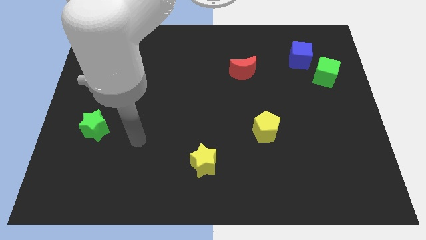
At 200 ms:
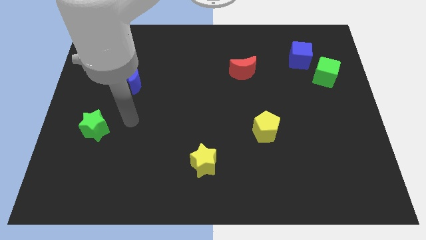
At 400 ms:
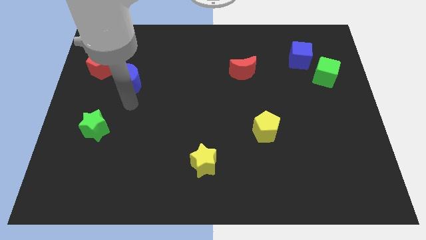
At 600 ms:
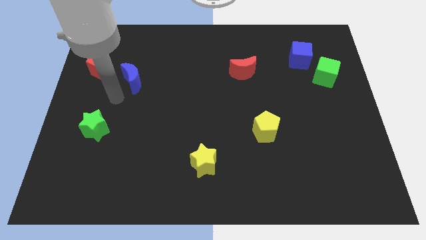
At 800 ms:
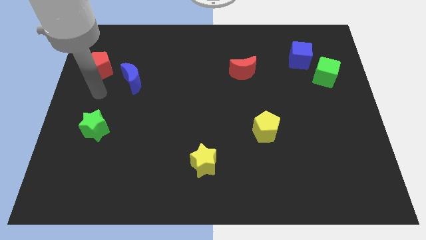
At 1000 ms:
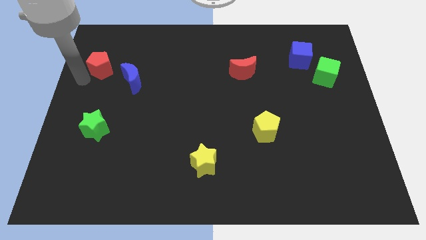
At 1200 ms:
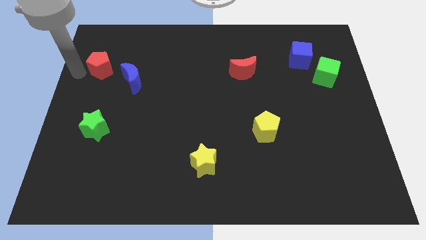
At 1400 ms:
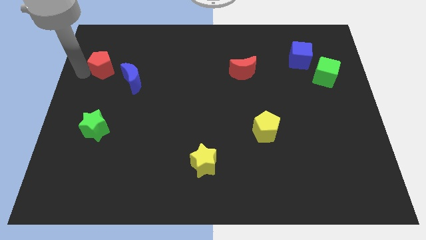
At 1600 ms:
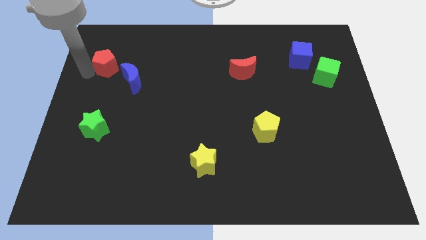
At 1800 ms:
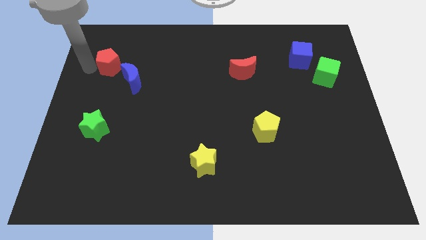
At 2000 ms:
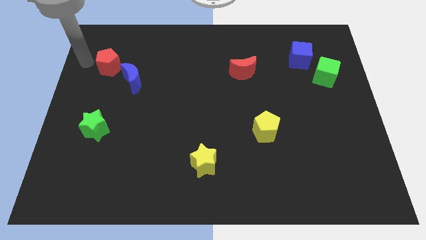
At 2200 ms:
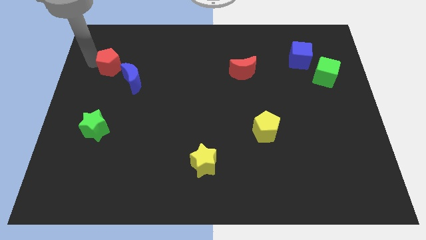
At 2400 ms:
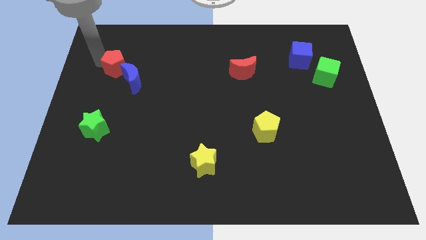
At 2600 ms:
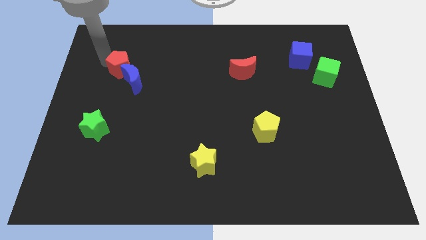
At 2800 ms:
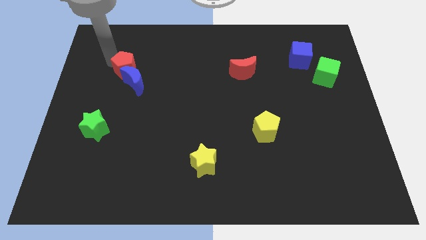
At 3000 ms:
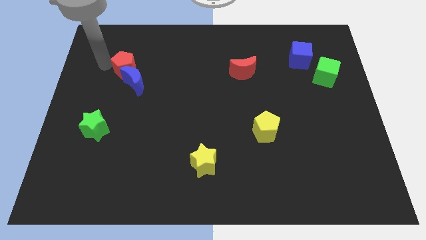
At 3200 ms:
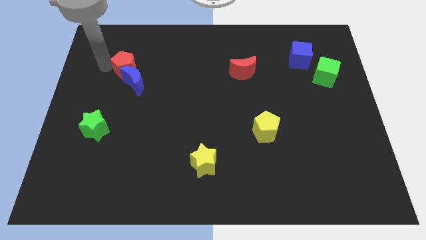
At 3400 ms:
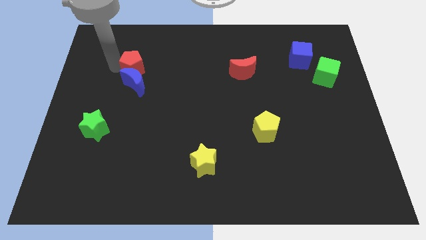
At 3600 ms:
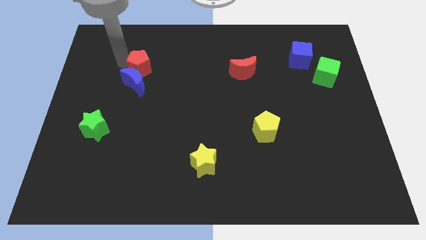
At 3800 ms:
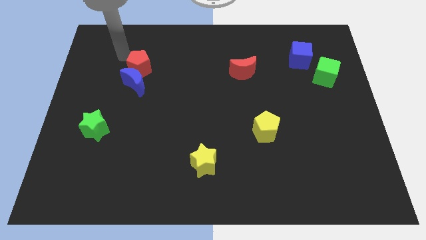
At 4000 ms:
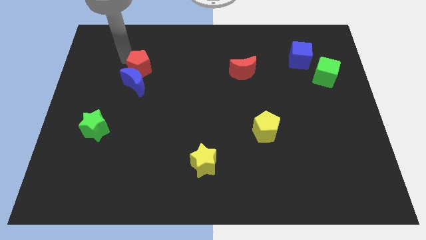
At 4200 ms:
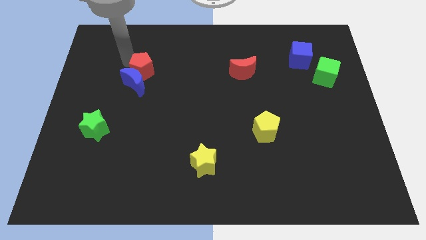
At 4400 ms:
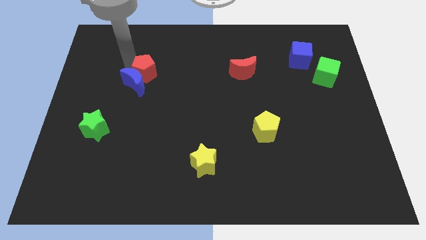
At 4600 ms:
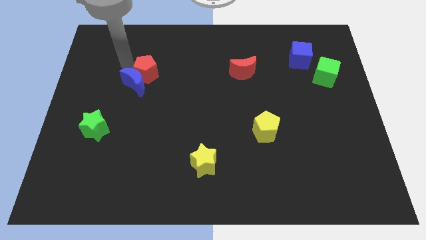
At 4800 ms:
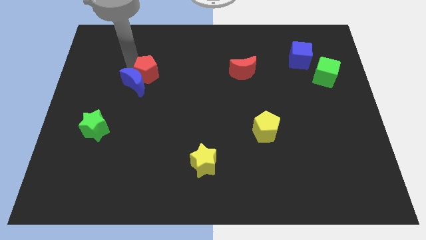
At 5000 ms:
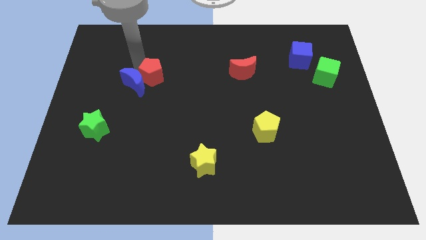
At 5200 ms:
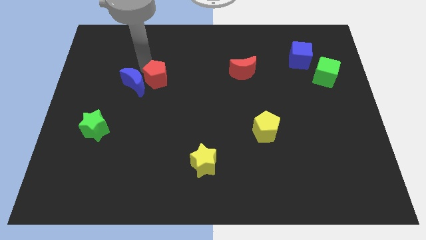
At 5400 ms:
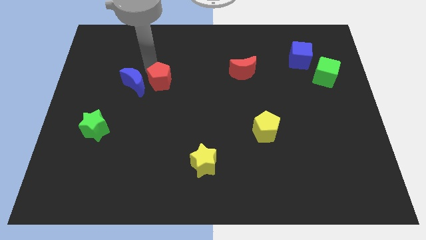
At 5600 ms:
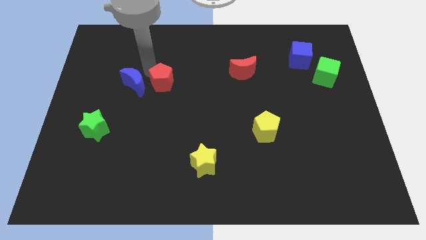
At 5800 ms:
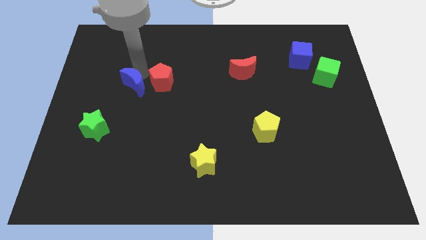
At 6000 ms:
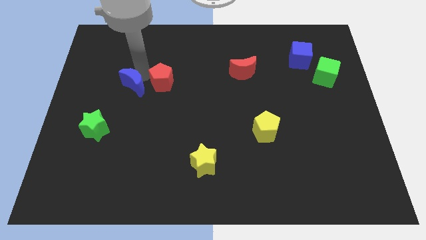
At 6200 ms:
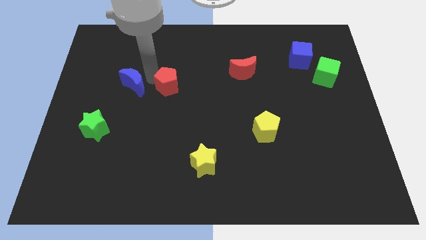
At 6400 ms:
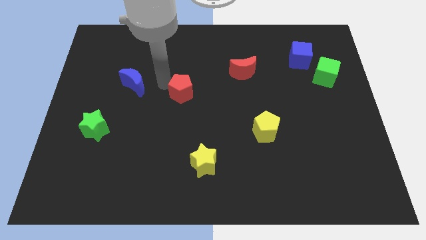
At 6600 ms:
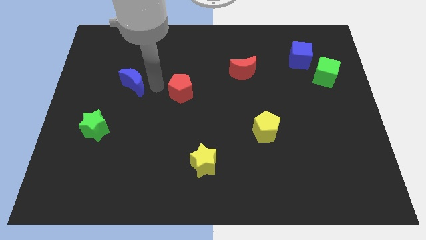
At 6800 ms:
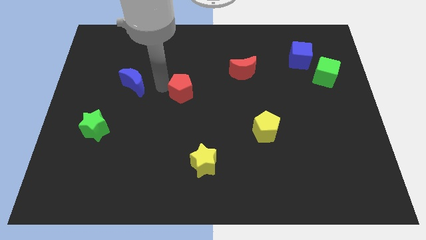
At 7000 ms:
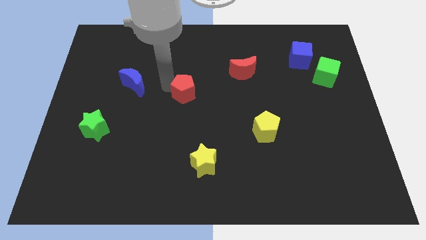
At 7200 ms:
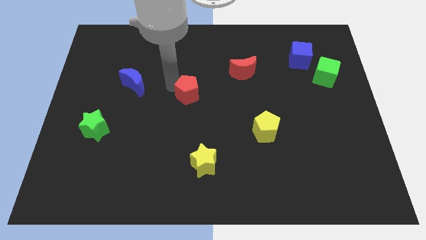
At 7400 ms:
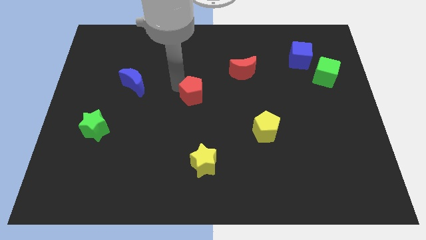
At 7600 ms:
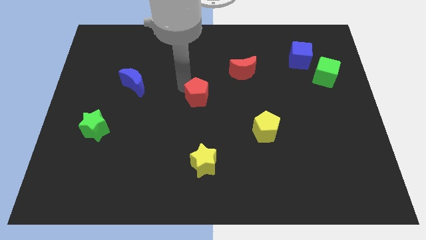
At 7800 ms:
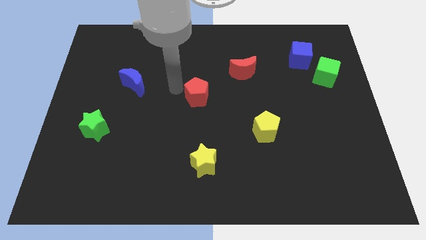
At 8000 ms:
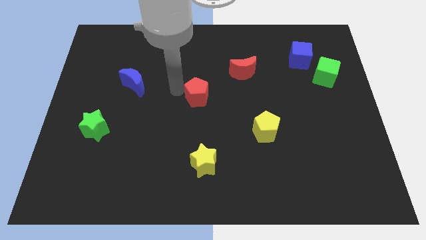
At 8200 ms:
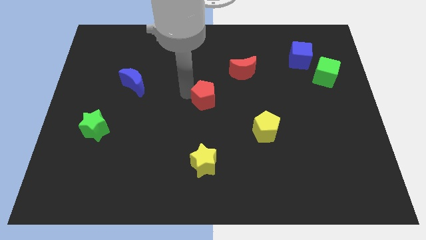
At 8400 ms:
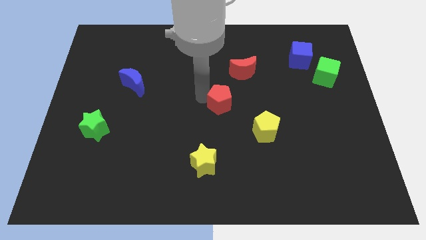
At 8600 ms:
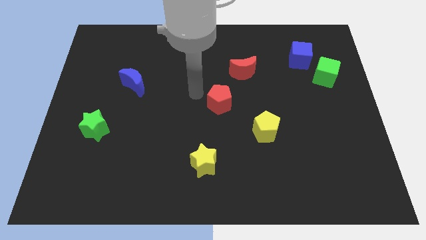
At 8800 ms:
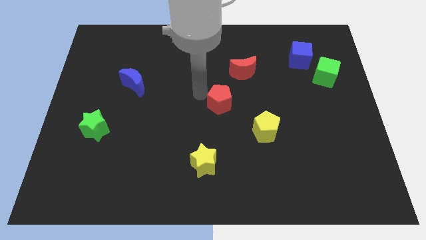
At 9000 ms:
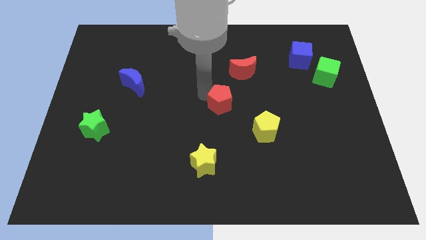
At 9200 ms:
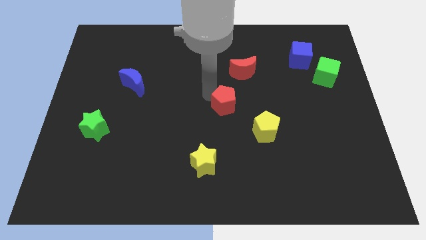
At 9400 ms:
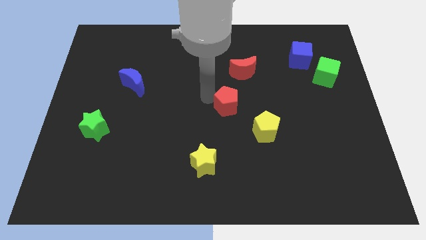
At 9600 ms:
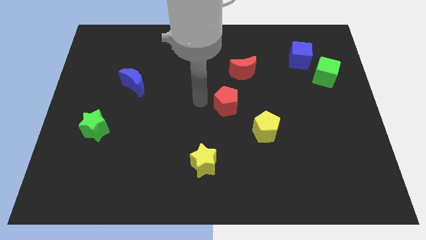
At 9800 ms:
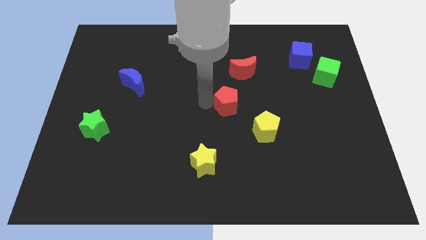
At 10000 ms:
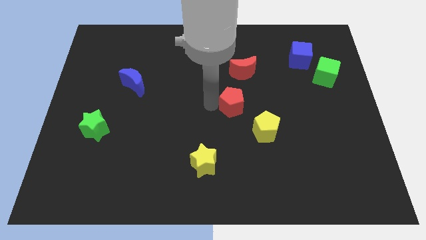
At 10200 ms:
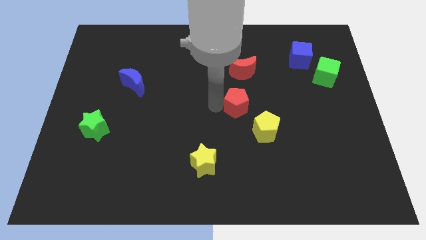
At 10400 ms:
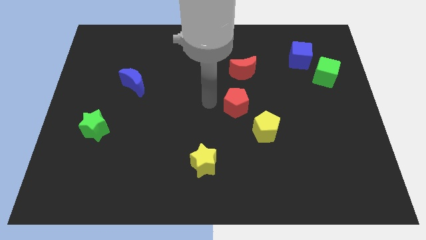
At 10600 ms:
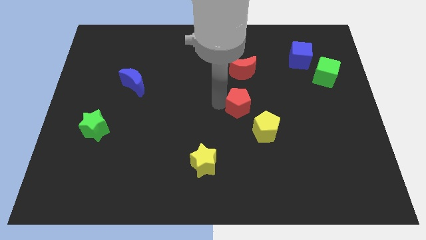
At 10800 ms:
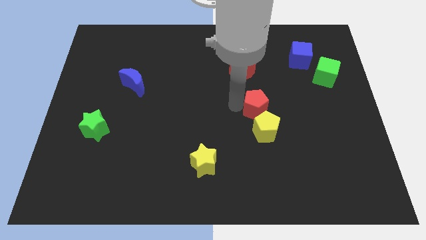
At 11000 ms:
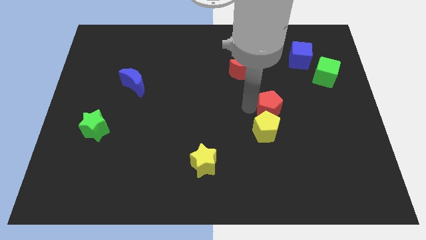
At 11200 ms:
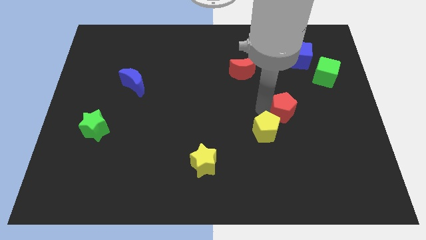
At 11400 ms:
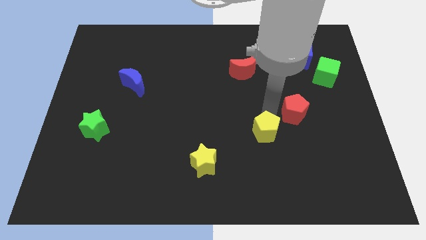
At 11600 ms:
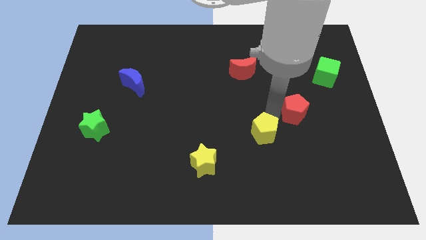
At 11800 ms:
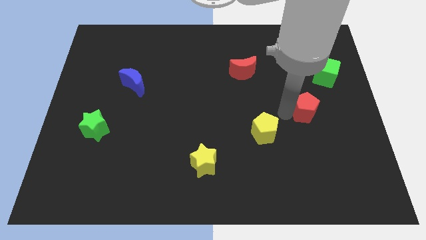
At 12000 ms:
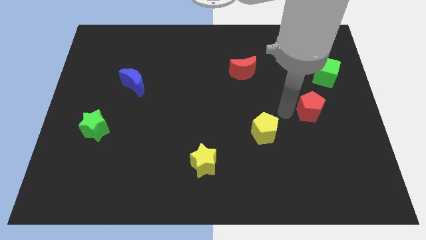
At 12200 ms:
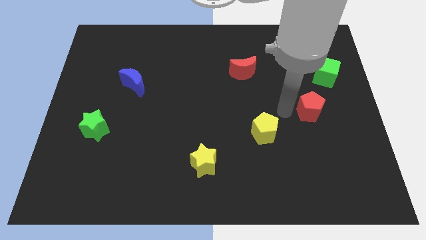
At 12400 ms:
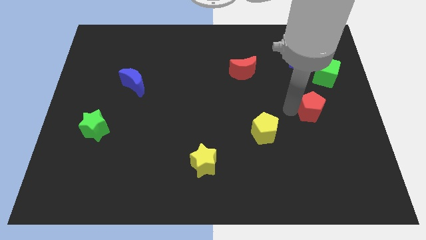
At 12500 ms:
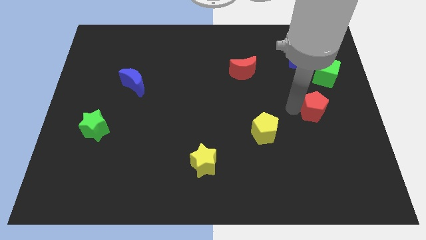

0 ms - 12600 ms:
move the red pentagon to the bottom of the green cube

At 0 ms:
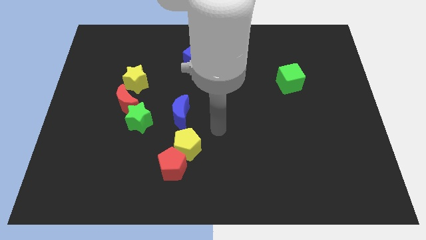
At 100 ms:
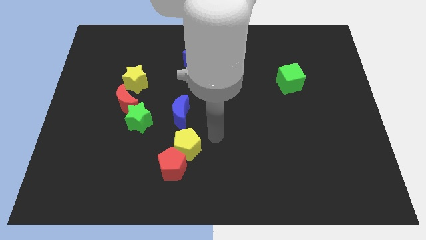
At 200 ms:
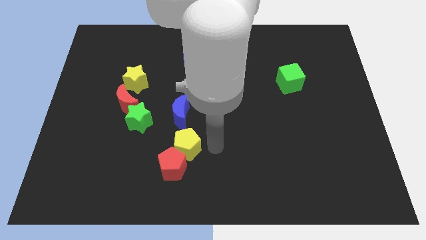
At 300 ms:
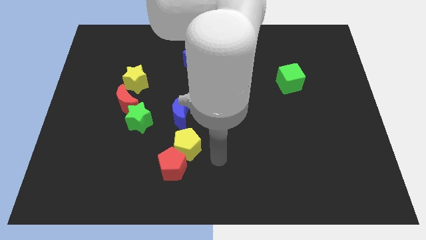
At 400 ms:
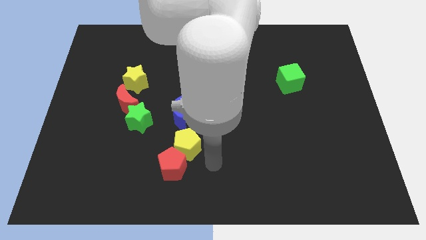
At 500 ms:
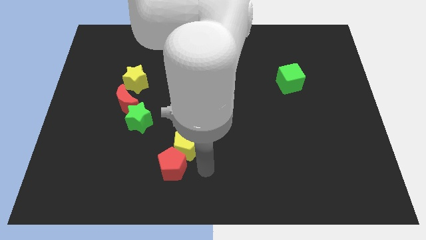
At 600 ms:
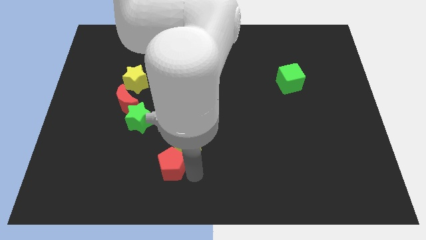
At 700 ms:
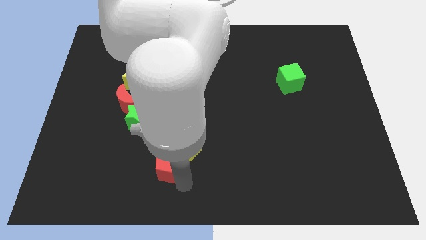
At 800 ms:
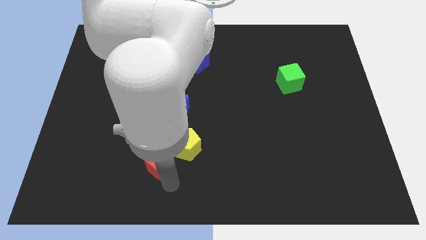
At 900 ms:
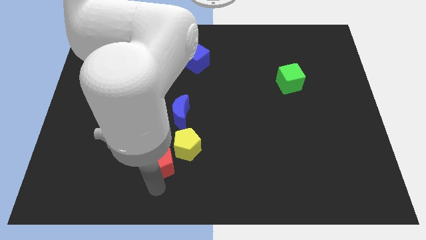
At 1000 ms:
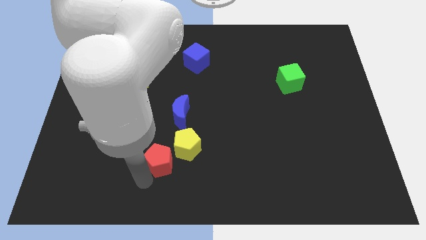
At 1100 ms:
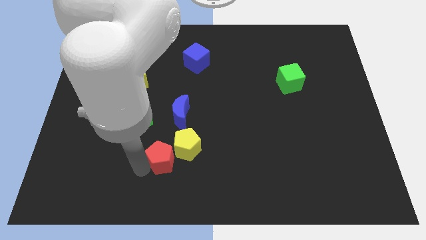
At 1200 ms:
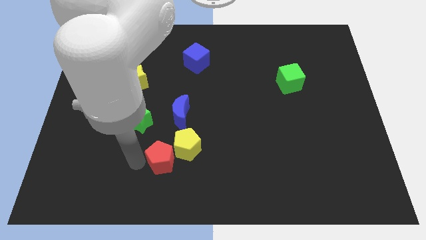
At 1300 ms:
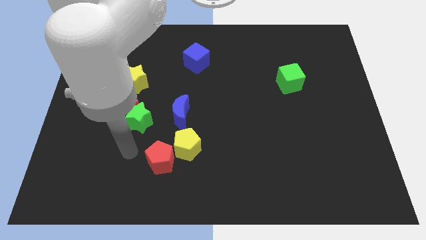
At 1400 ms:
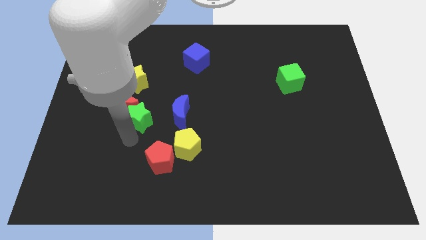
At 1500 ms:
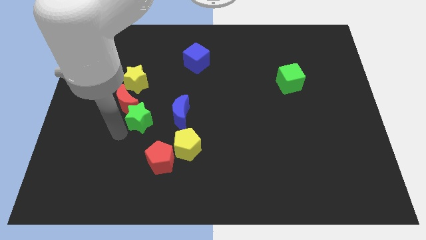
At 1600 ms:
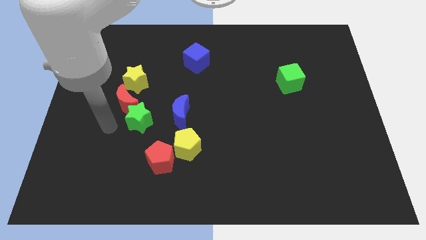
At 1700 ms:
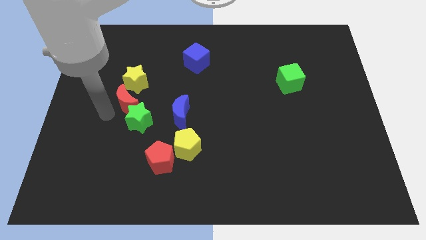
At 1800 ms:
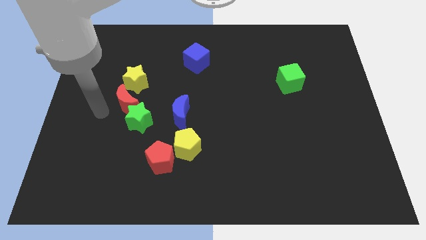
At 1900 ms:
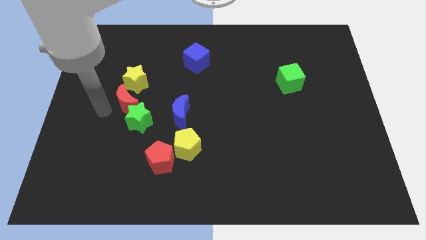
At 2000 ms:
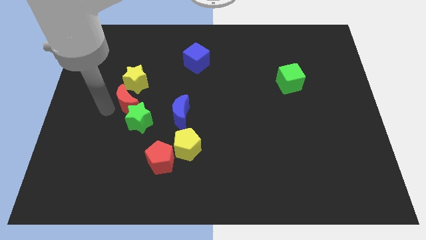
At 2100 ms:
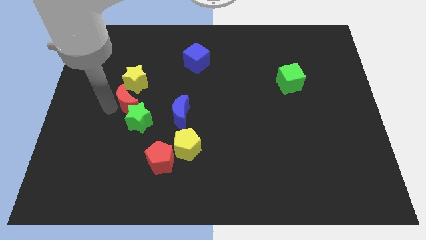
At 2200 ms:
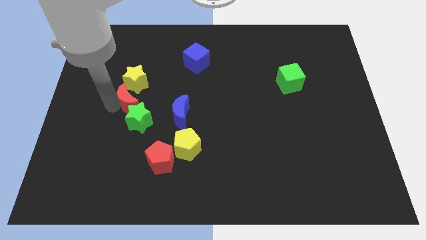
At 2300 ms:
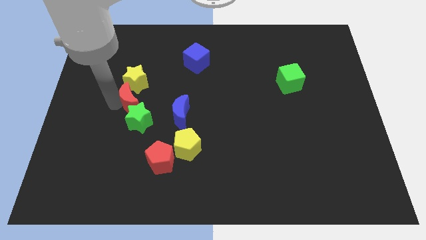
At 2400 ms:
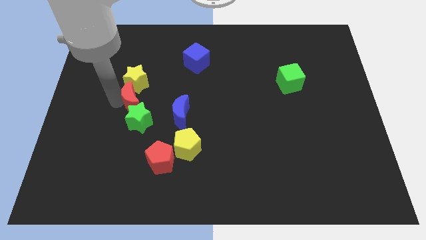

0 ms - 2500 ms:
push the red moon to the bottom right of the yellow star
